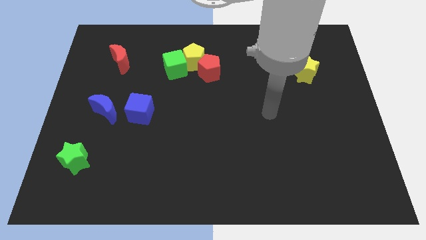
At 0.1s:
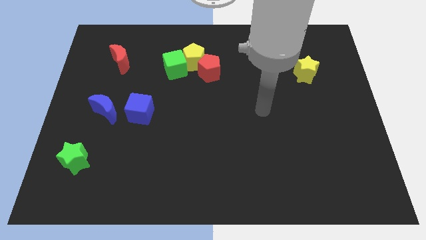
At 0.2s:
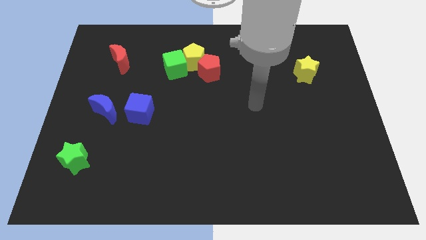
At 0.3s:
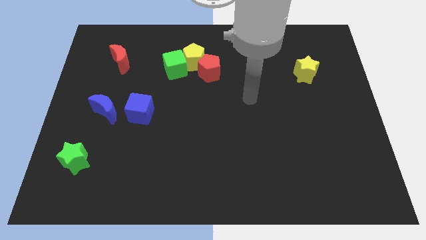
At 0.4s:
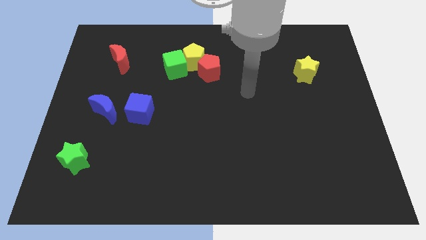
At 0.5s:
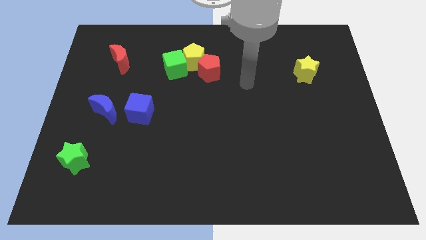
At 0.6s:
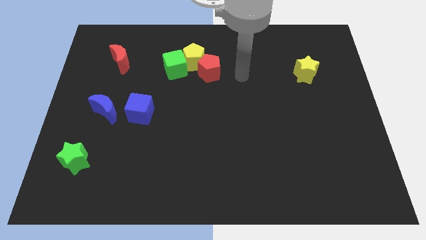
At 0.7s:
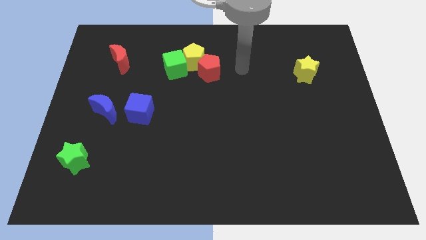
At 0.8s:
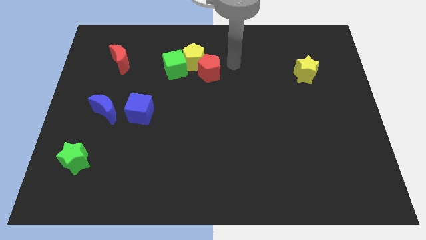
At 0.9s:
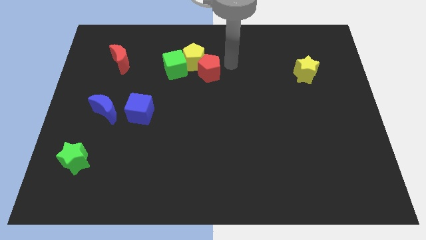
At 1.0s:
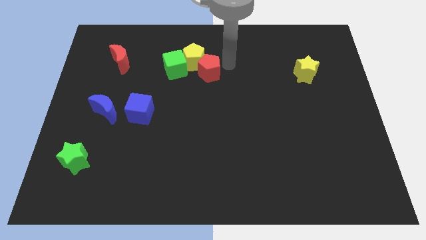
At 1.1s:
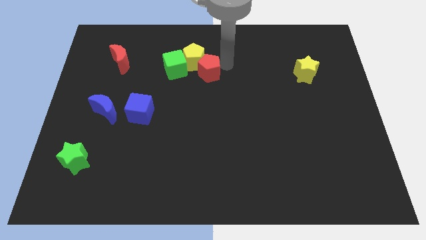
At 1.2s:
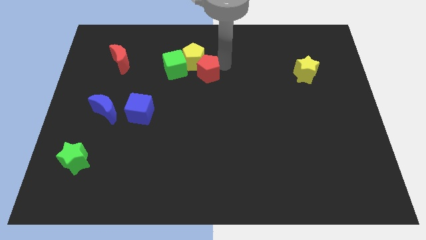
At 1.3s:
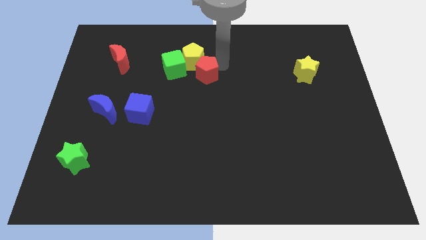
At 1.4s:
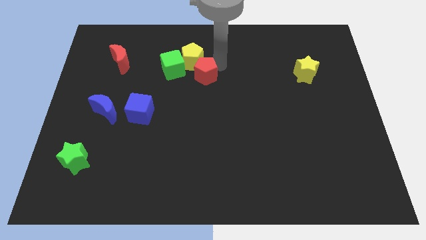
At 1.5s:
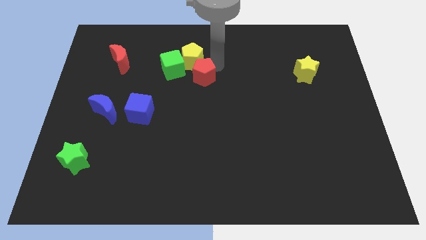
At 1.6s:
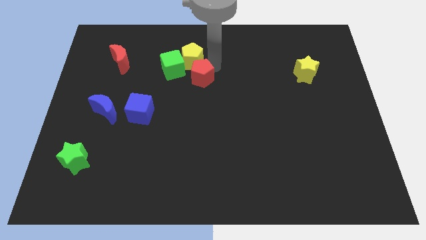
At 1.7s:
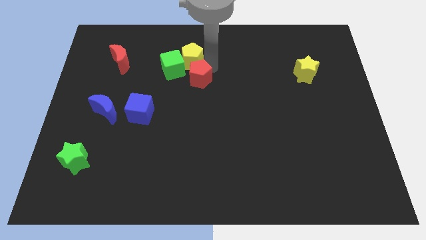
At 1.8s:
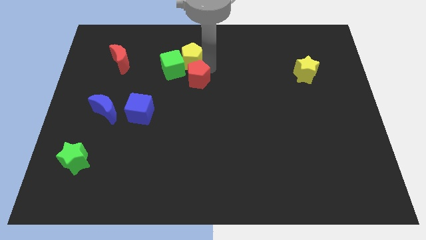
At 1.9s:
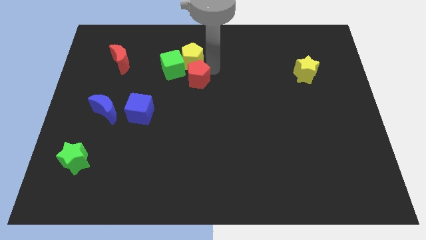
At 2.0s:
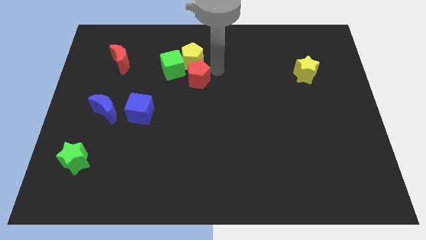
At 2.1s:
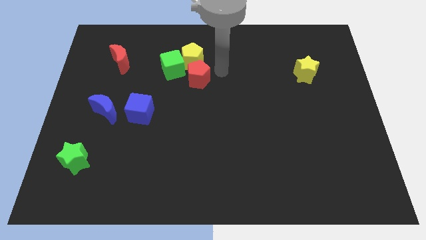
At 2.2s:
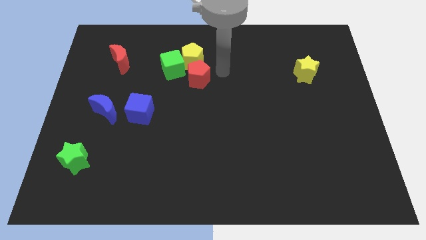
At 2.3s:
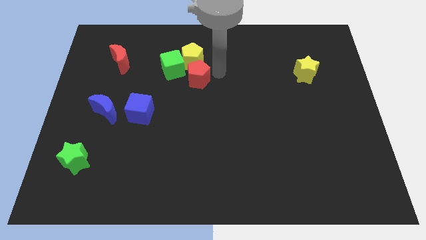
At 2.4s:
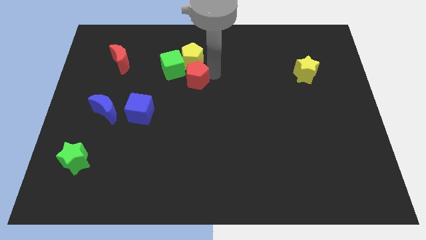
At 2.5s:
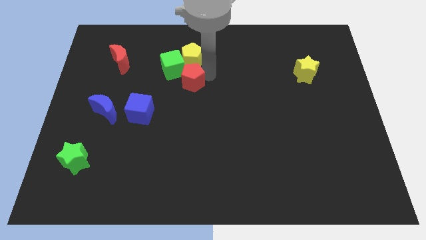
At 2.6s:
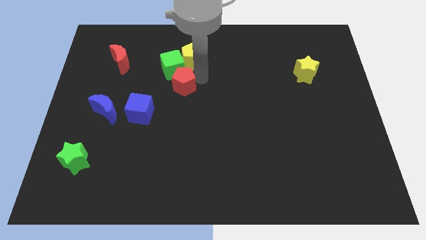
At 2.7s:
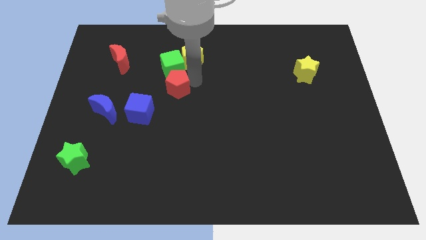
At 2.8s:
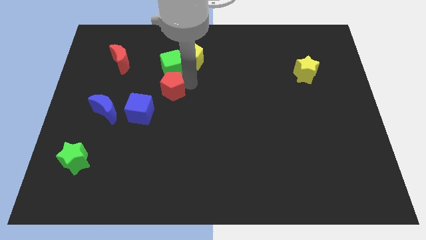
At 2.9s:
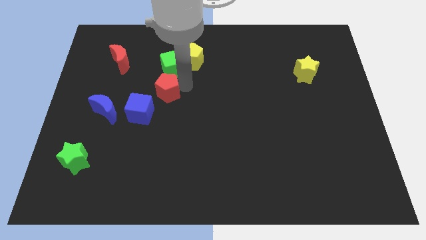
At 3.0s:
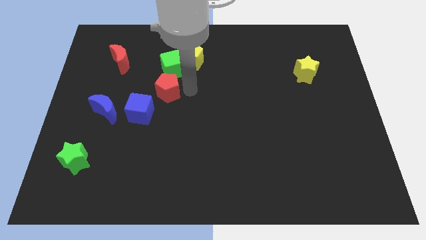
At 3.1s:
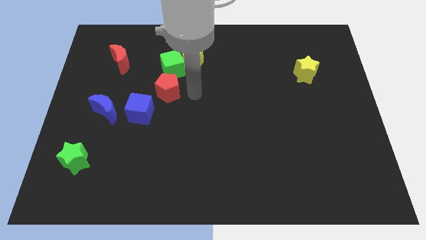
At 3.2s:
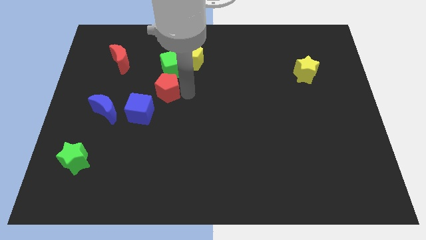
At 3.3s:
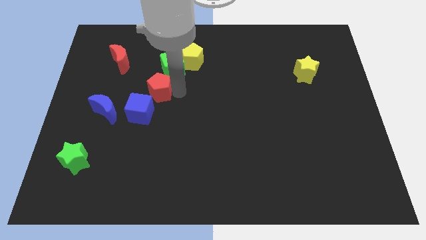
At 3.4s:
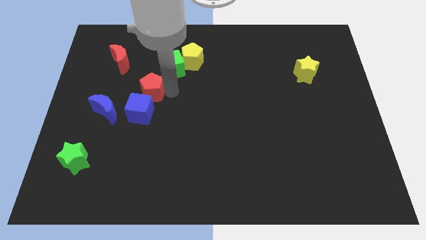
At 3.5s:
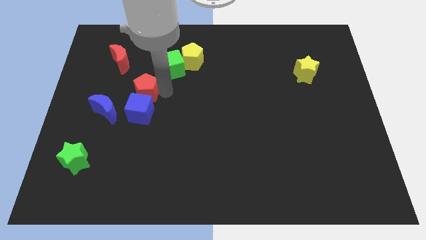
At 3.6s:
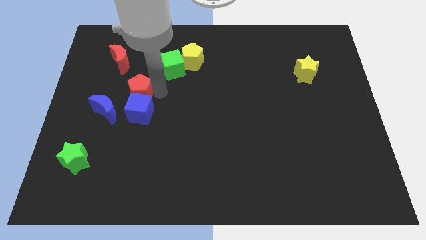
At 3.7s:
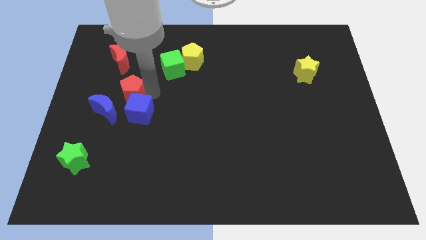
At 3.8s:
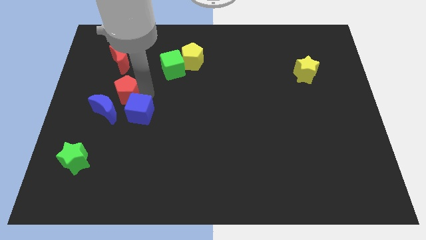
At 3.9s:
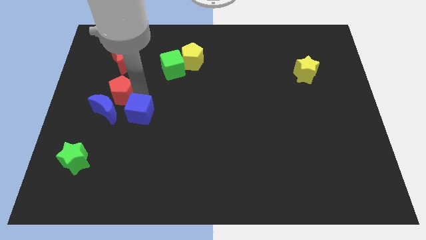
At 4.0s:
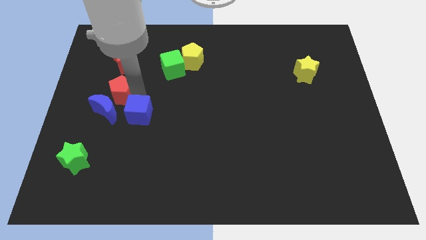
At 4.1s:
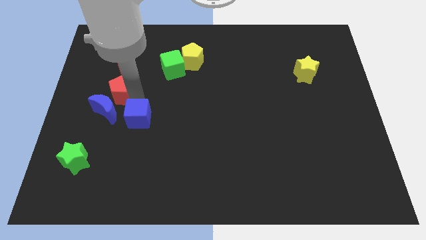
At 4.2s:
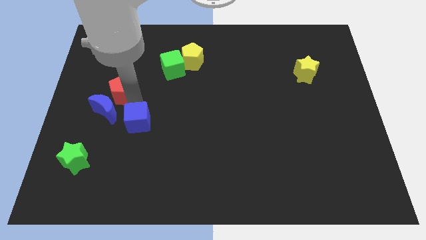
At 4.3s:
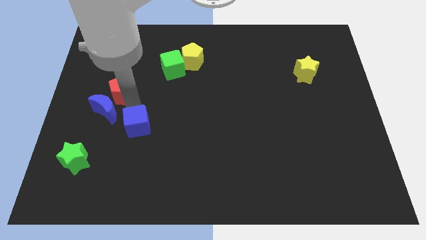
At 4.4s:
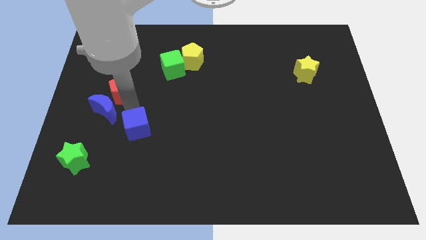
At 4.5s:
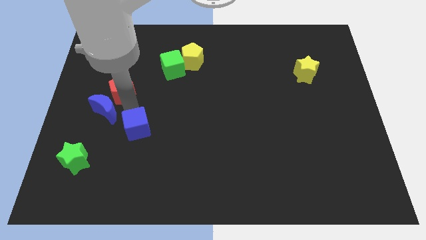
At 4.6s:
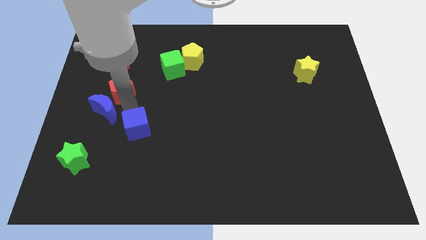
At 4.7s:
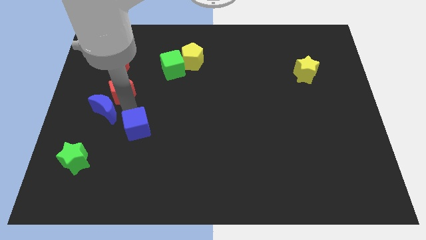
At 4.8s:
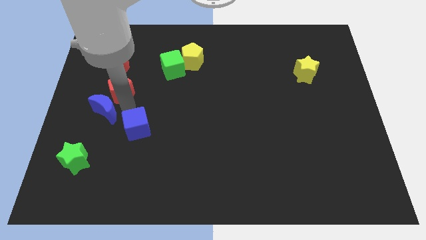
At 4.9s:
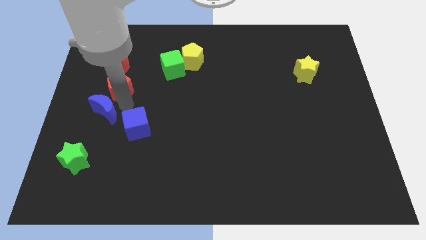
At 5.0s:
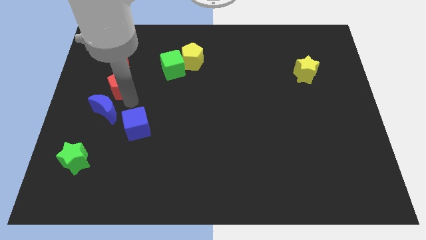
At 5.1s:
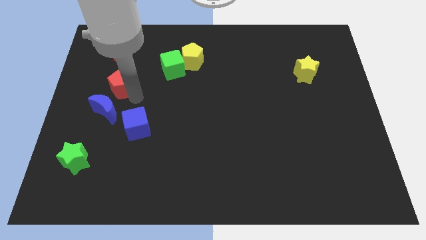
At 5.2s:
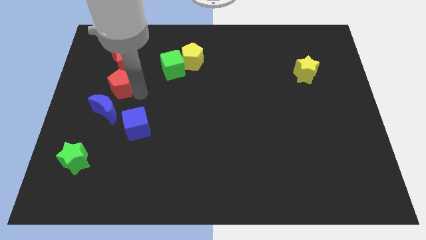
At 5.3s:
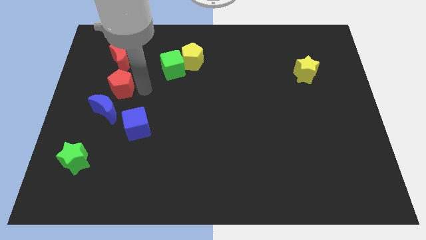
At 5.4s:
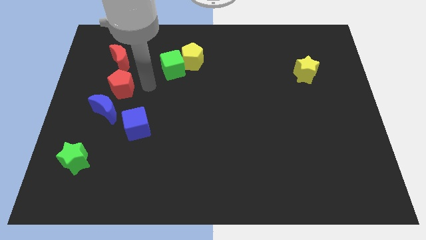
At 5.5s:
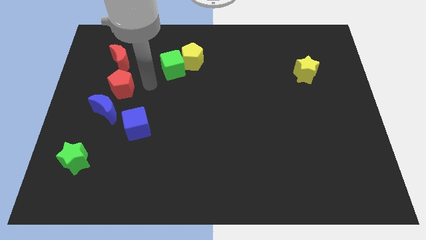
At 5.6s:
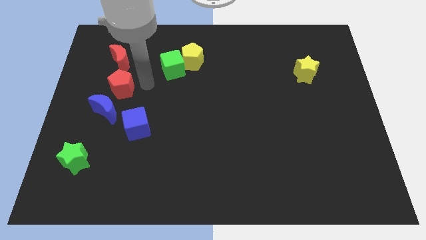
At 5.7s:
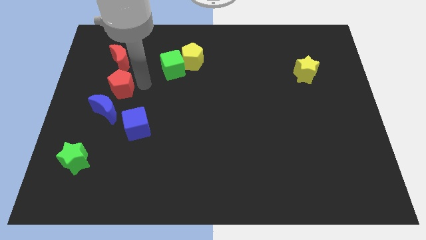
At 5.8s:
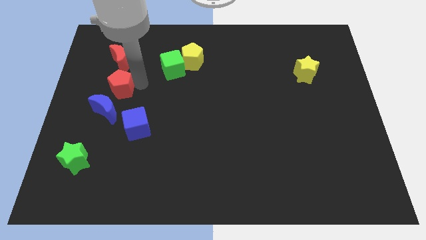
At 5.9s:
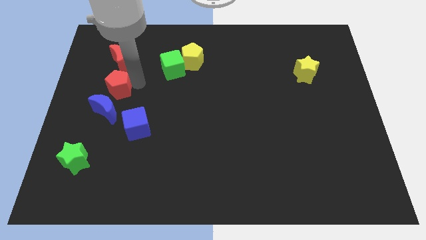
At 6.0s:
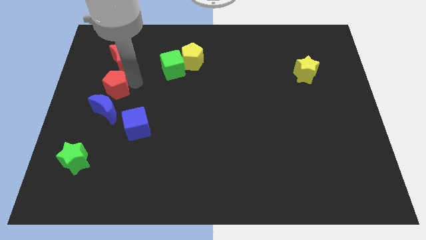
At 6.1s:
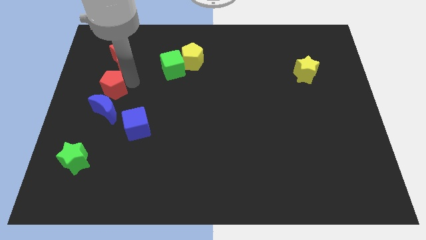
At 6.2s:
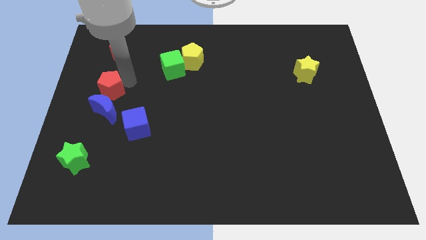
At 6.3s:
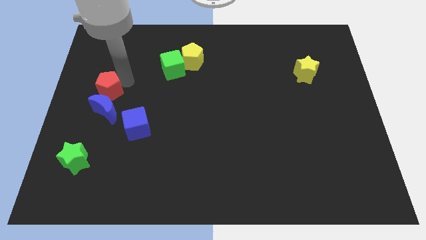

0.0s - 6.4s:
move the red pentagon to the left side of the board

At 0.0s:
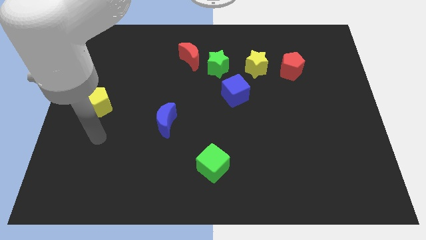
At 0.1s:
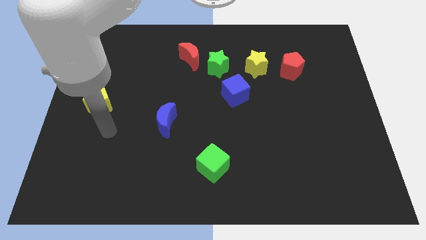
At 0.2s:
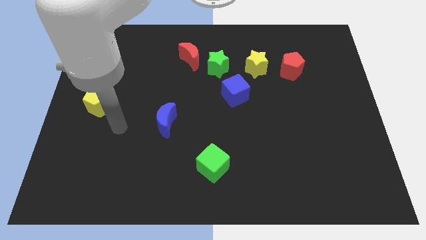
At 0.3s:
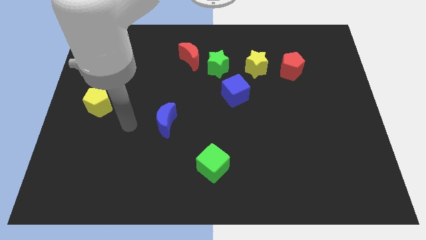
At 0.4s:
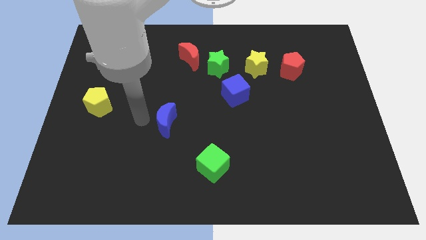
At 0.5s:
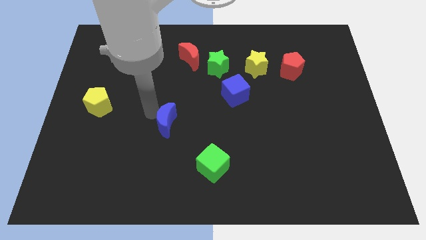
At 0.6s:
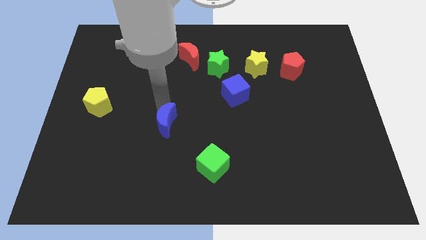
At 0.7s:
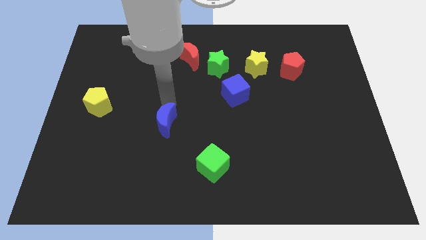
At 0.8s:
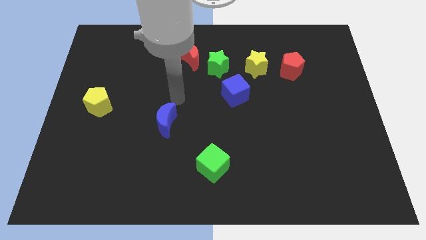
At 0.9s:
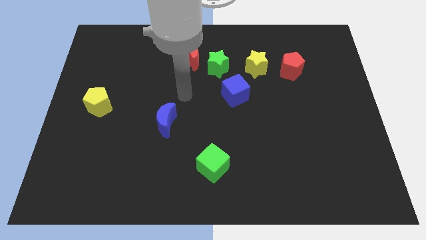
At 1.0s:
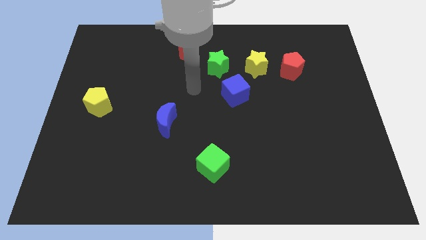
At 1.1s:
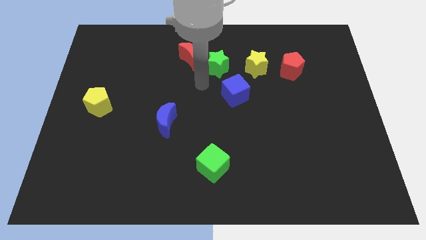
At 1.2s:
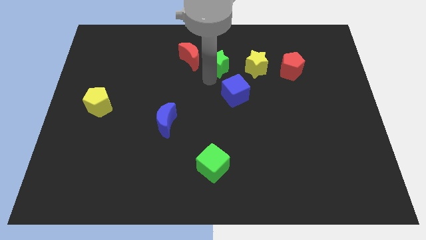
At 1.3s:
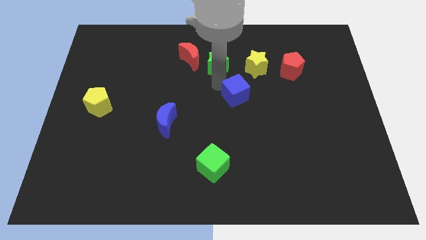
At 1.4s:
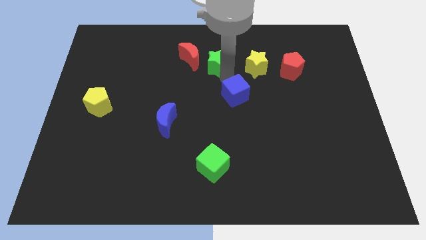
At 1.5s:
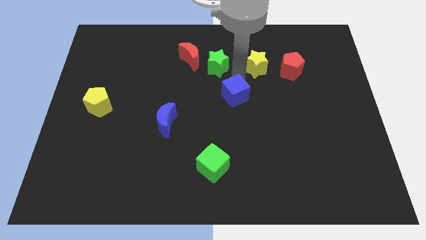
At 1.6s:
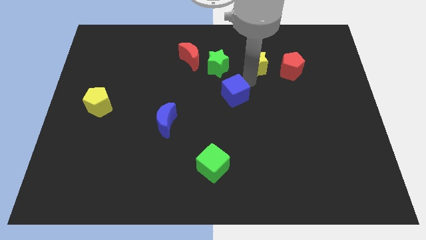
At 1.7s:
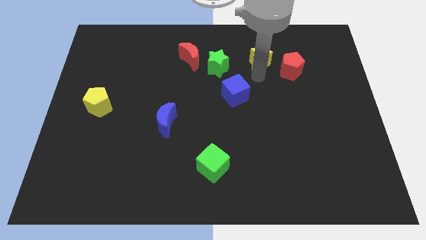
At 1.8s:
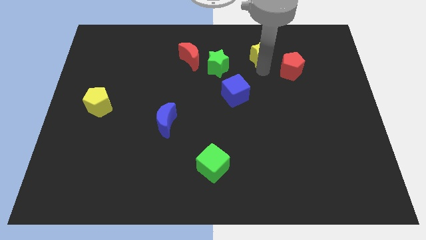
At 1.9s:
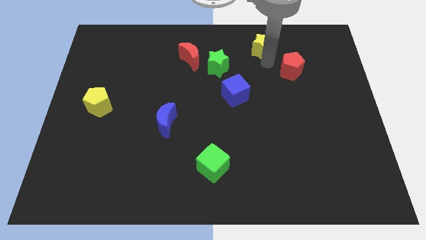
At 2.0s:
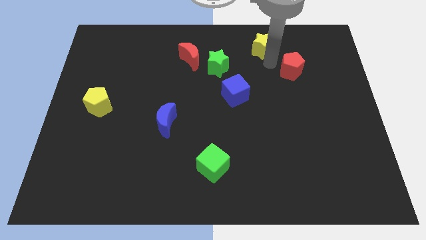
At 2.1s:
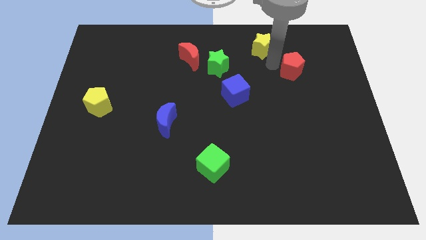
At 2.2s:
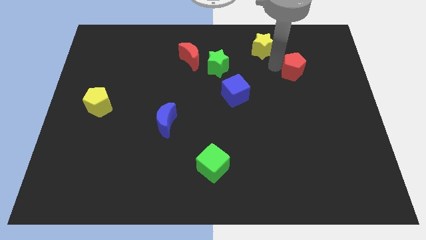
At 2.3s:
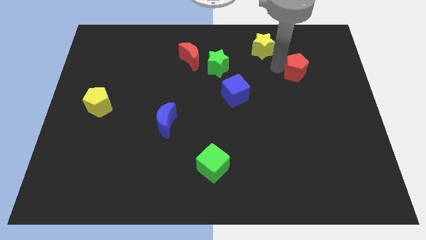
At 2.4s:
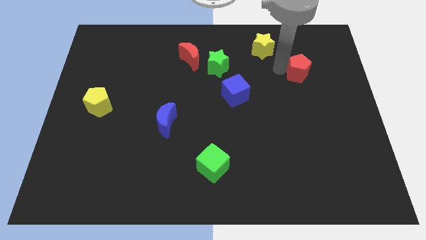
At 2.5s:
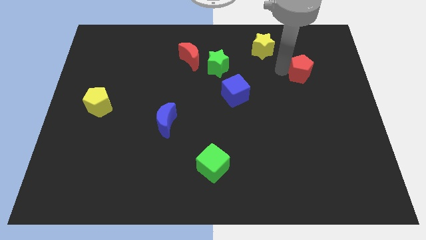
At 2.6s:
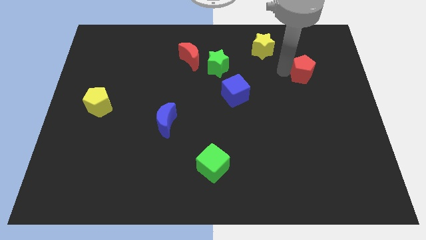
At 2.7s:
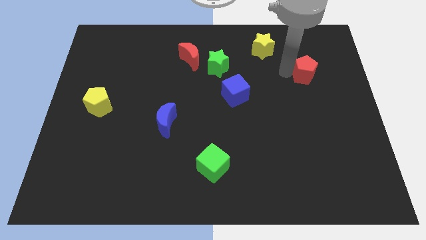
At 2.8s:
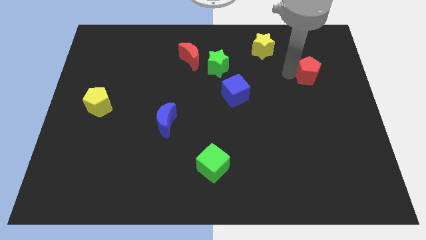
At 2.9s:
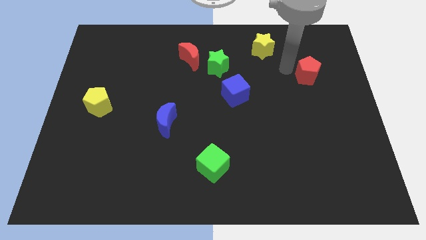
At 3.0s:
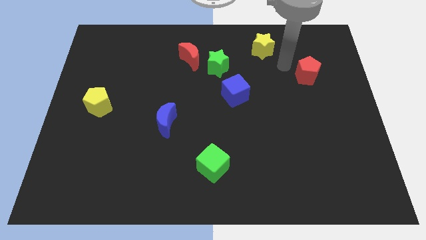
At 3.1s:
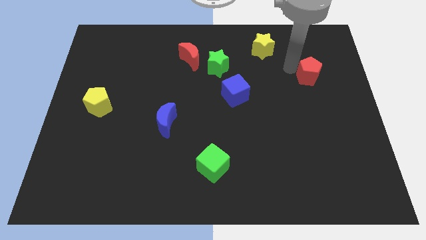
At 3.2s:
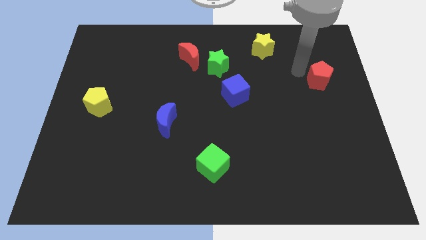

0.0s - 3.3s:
move the red pentagon to the right side of the board
